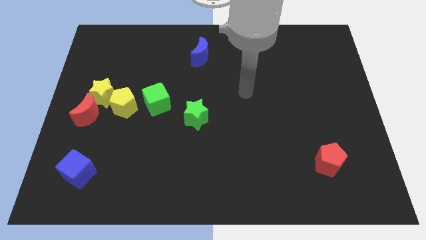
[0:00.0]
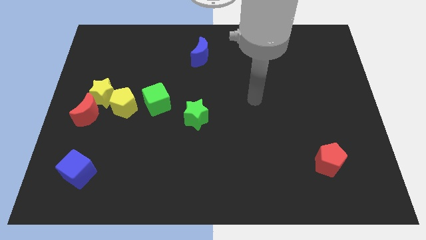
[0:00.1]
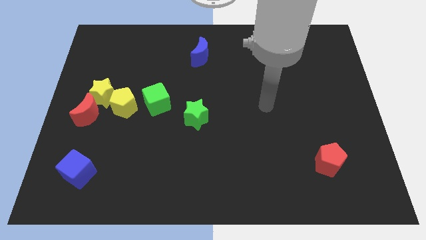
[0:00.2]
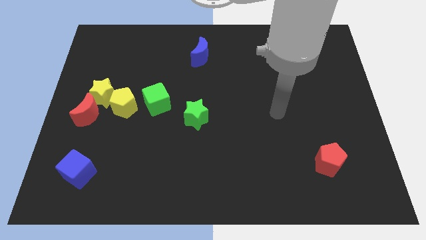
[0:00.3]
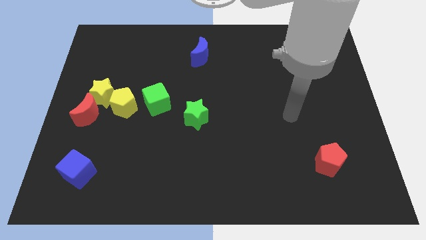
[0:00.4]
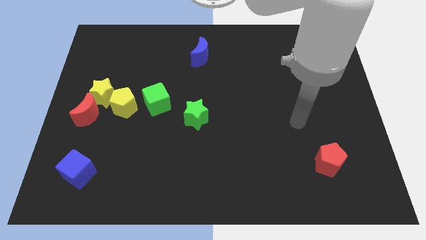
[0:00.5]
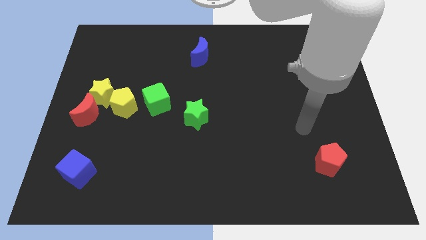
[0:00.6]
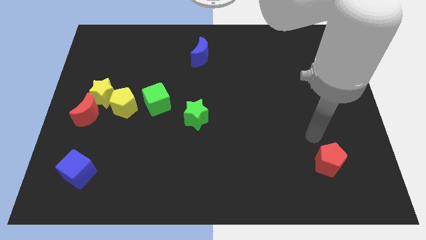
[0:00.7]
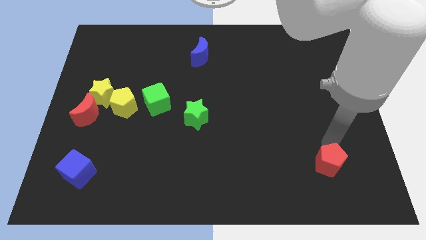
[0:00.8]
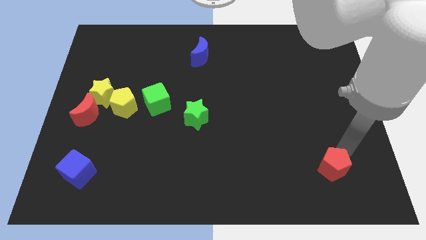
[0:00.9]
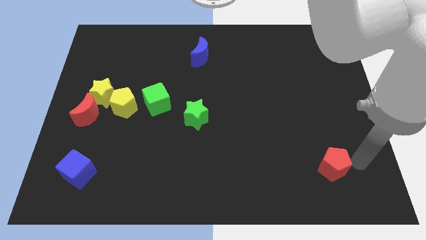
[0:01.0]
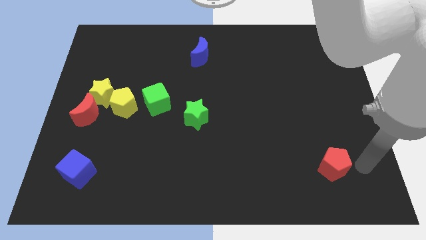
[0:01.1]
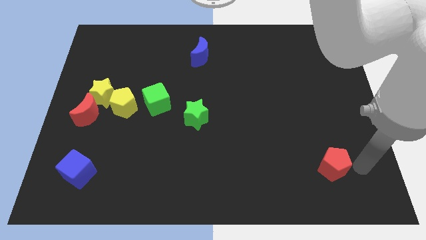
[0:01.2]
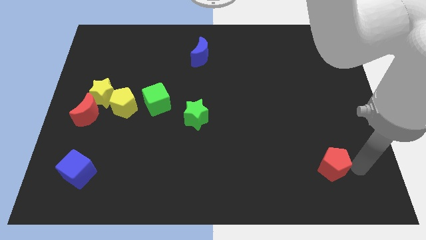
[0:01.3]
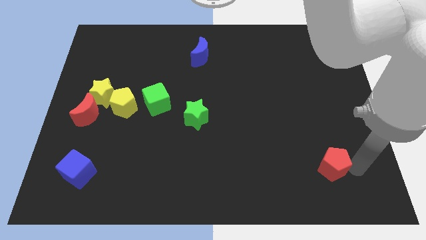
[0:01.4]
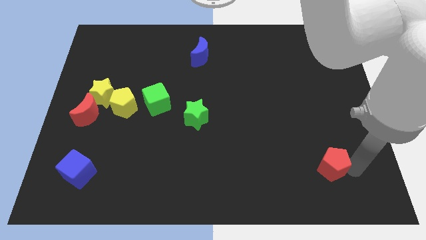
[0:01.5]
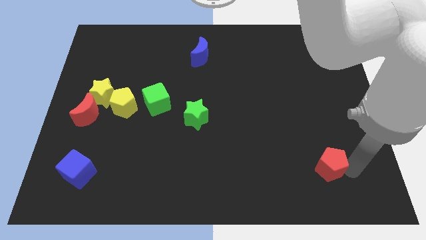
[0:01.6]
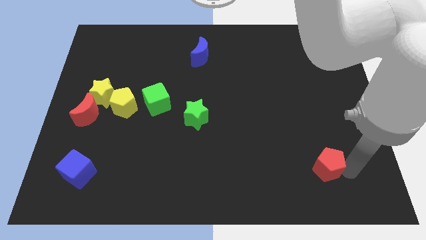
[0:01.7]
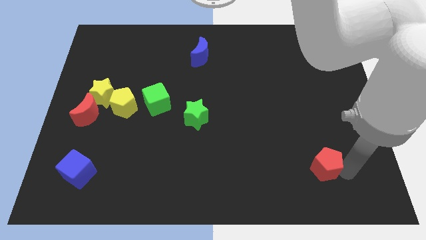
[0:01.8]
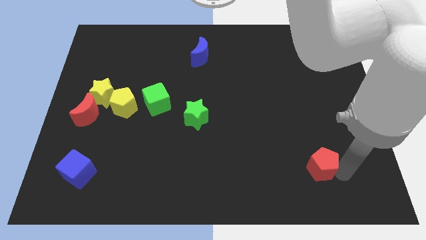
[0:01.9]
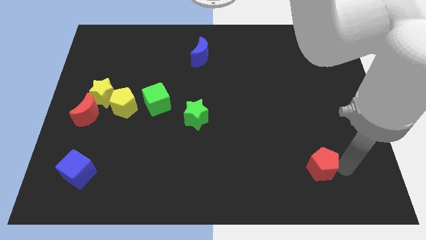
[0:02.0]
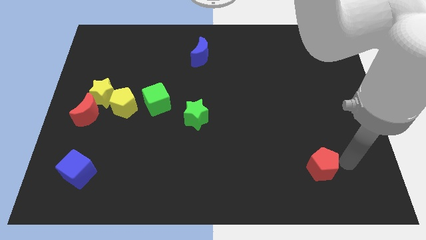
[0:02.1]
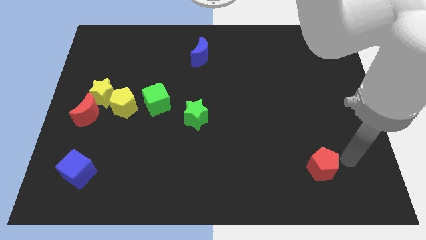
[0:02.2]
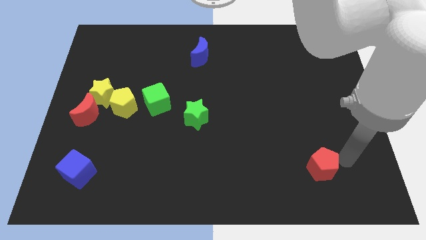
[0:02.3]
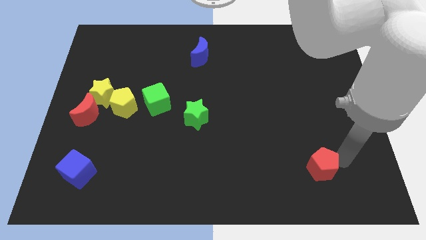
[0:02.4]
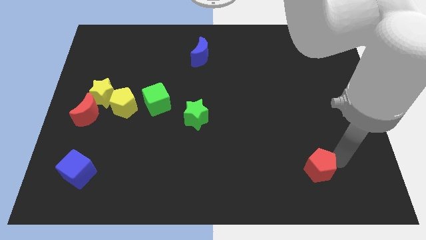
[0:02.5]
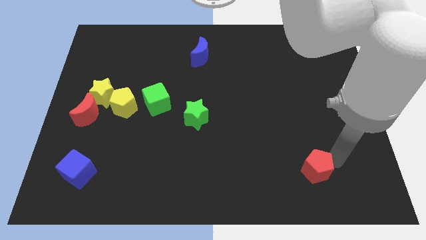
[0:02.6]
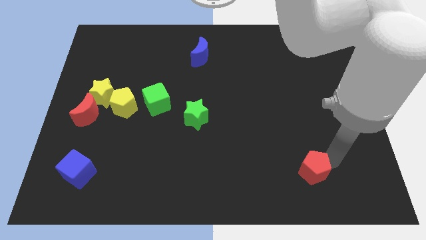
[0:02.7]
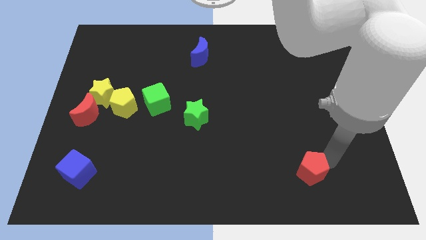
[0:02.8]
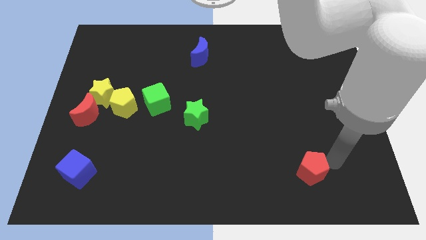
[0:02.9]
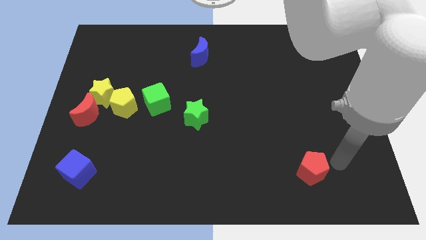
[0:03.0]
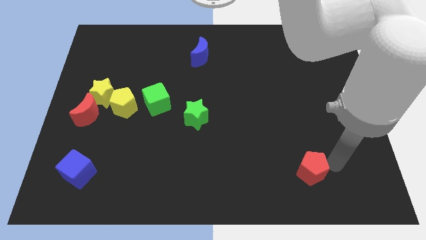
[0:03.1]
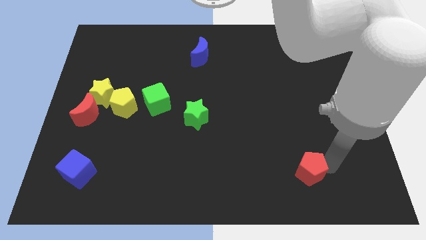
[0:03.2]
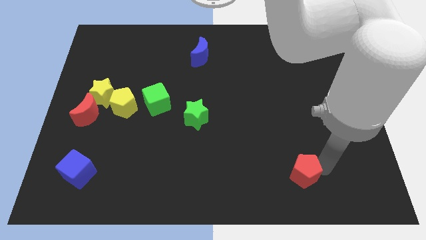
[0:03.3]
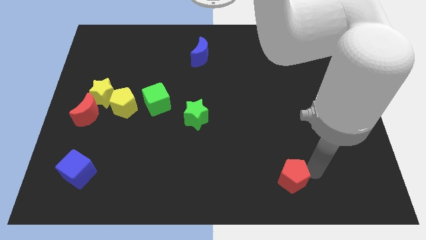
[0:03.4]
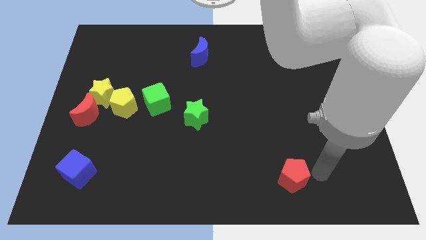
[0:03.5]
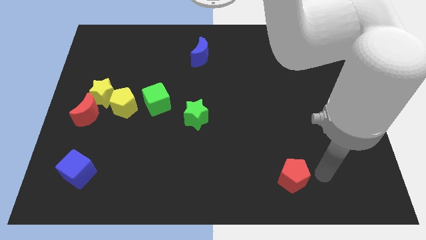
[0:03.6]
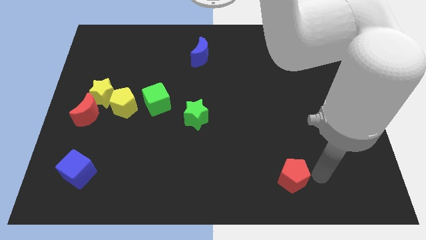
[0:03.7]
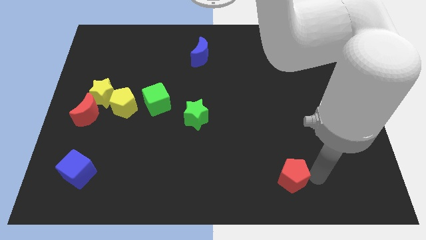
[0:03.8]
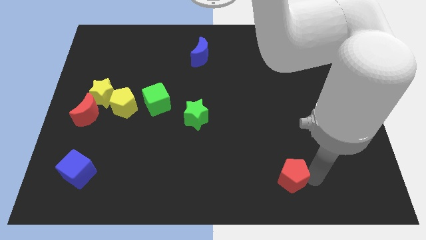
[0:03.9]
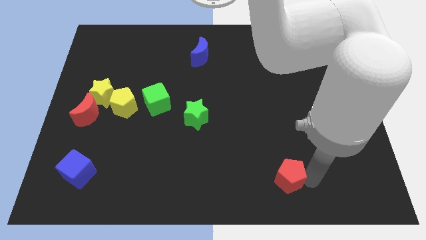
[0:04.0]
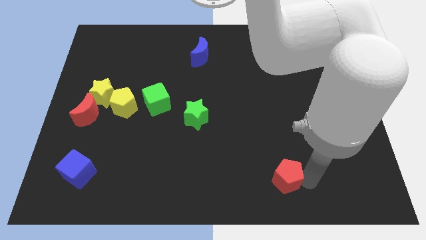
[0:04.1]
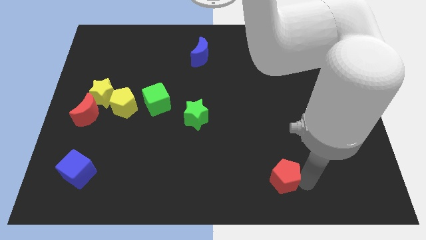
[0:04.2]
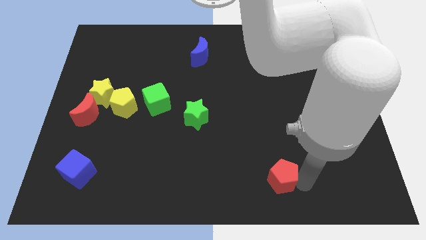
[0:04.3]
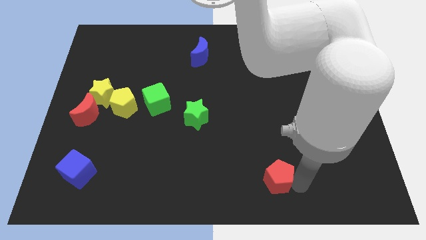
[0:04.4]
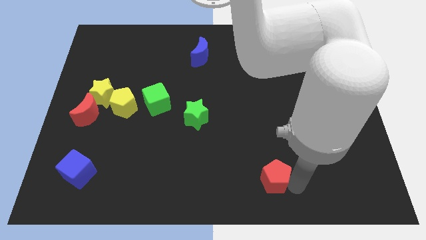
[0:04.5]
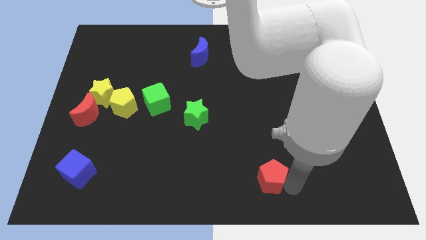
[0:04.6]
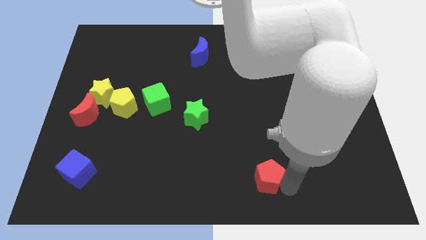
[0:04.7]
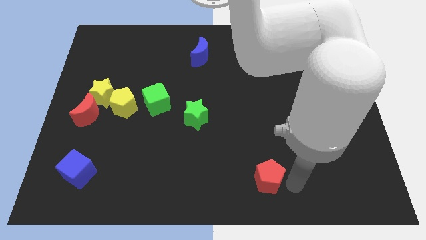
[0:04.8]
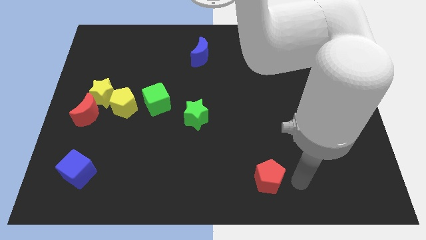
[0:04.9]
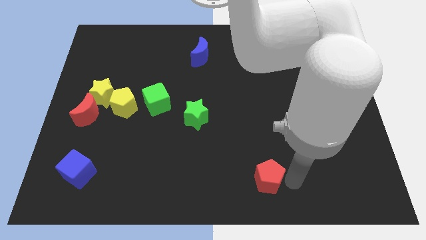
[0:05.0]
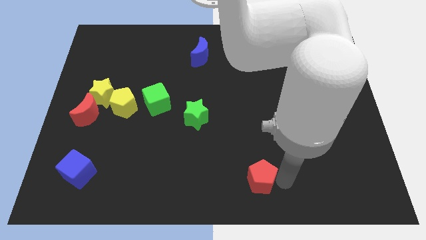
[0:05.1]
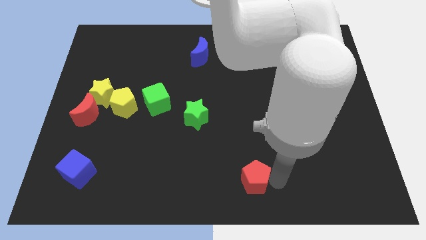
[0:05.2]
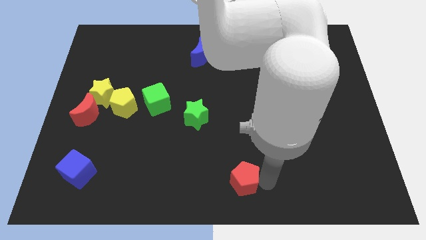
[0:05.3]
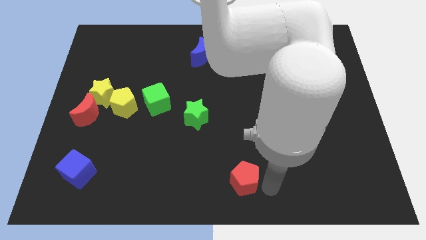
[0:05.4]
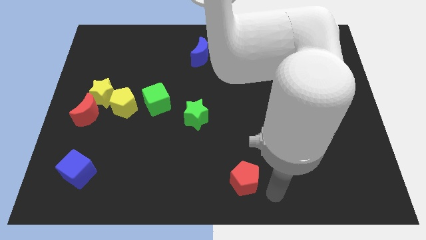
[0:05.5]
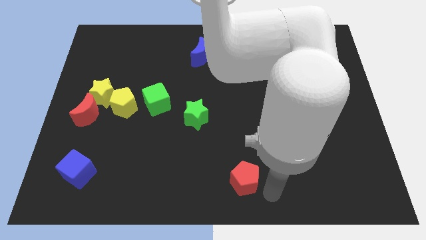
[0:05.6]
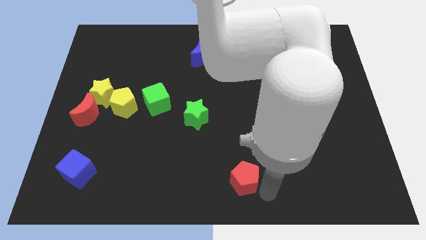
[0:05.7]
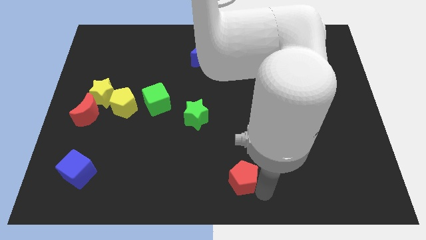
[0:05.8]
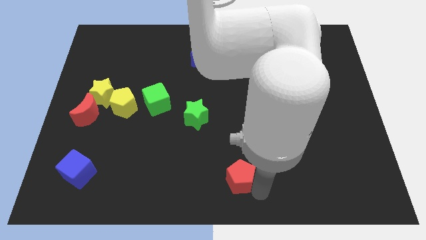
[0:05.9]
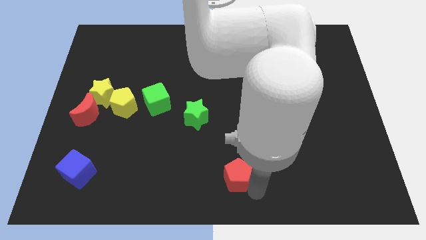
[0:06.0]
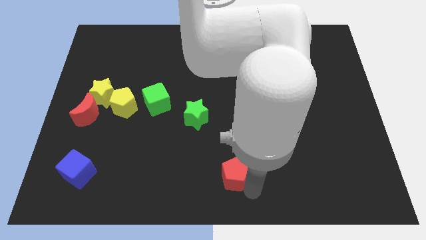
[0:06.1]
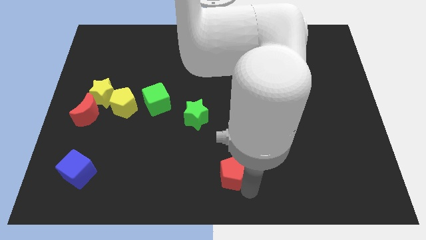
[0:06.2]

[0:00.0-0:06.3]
move the red pentagon to the left

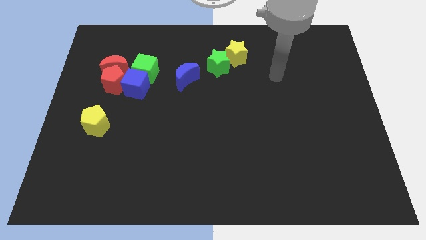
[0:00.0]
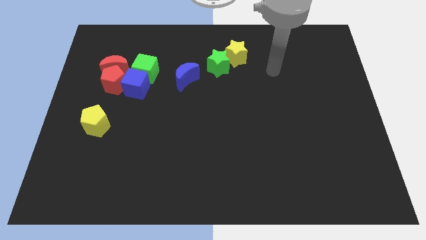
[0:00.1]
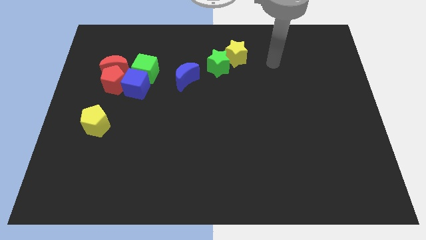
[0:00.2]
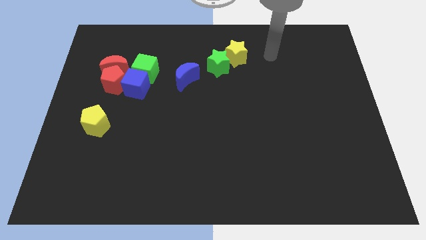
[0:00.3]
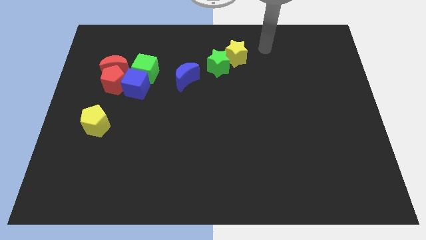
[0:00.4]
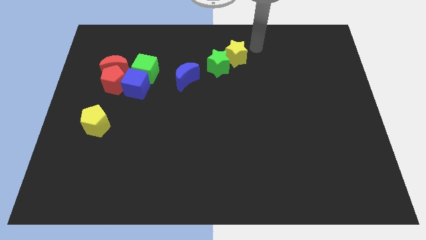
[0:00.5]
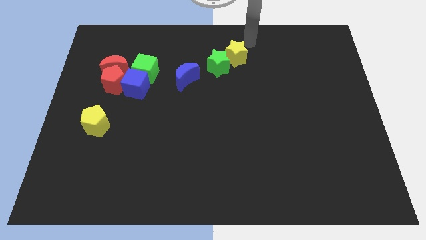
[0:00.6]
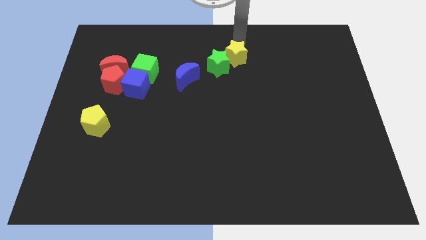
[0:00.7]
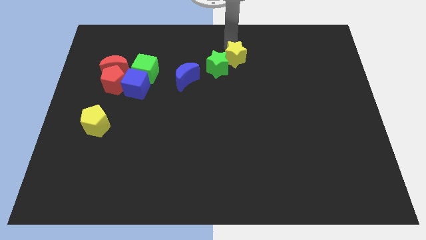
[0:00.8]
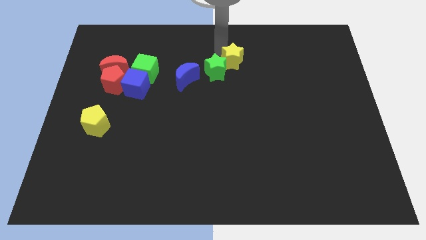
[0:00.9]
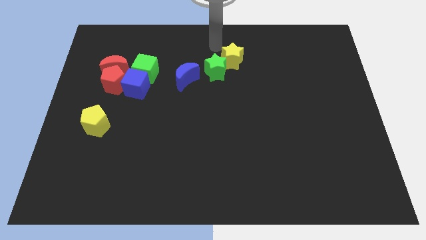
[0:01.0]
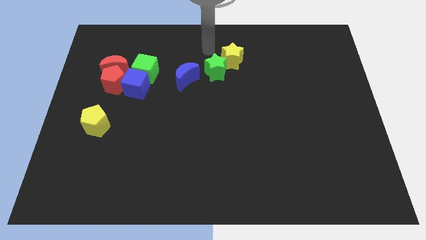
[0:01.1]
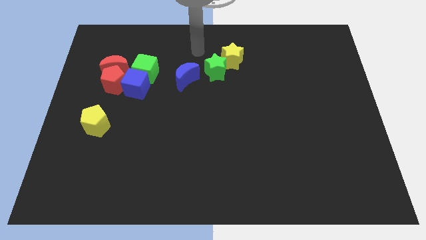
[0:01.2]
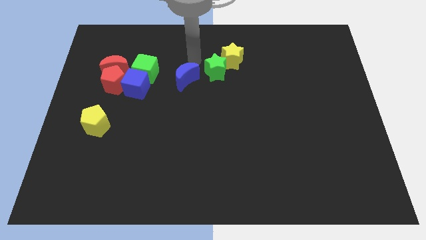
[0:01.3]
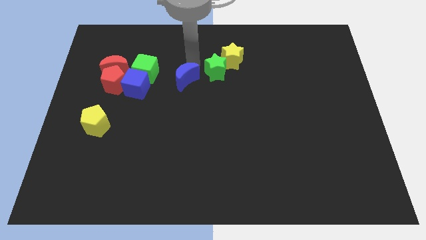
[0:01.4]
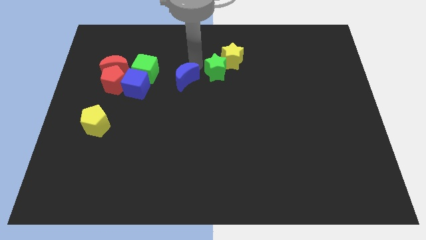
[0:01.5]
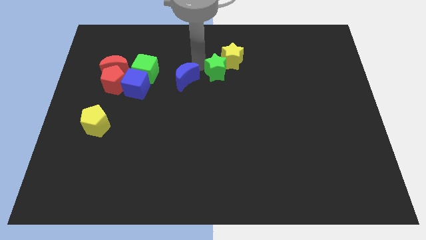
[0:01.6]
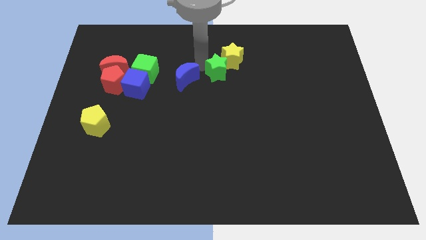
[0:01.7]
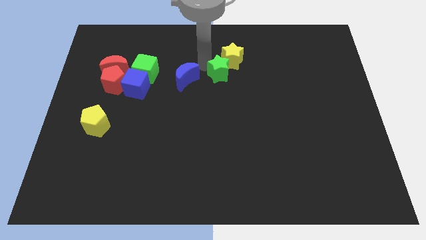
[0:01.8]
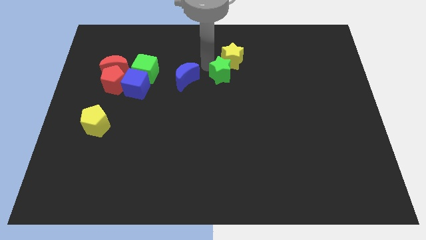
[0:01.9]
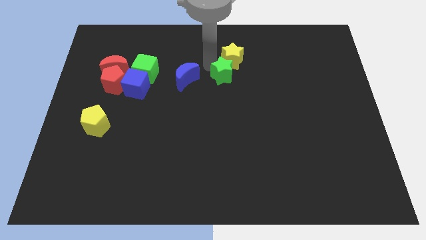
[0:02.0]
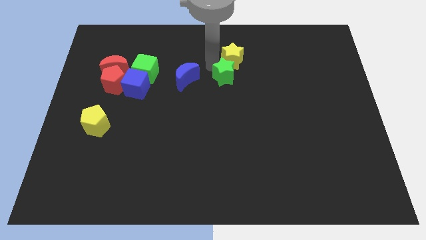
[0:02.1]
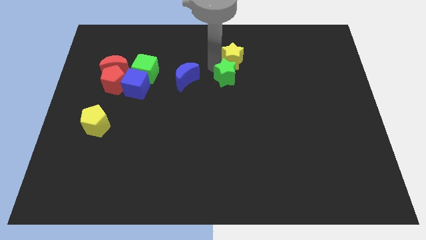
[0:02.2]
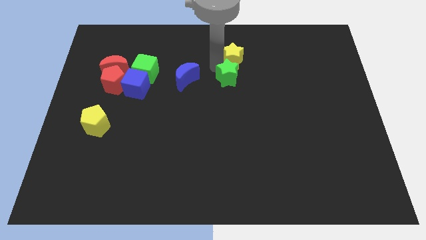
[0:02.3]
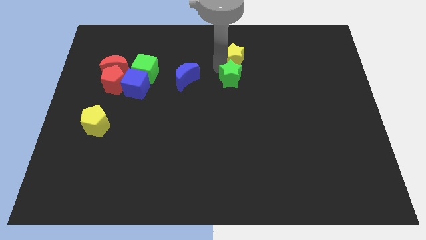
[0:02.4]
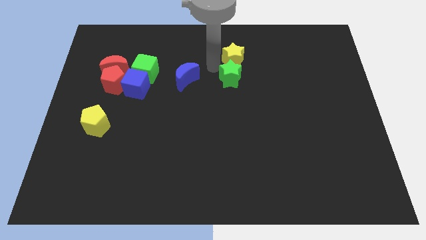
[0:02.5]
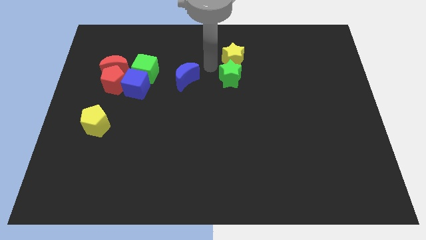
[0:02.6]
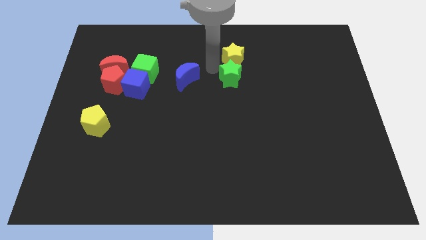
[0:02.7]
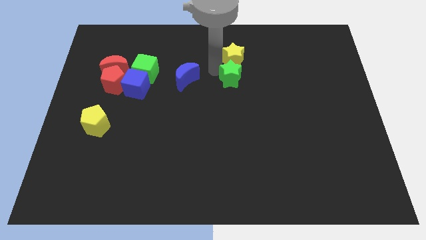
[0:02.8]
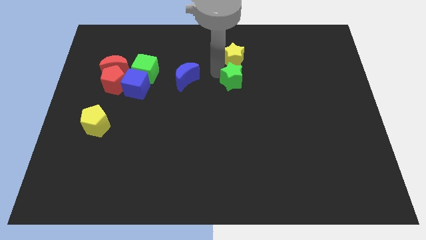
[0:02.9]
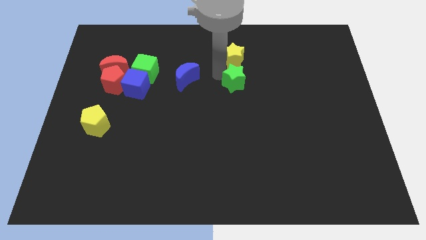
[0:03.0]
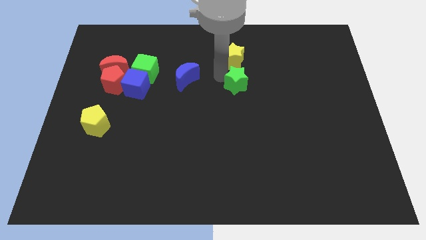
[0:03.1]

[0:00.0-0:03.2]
move the green star down and then right a bit
